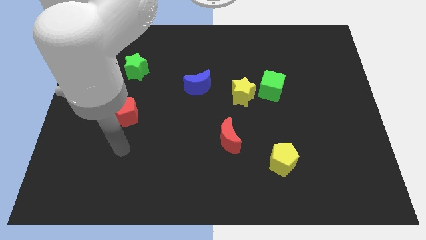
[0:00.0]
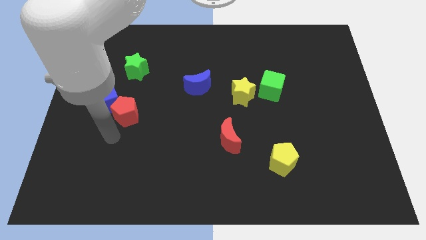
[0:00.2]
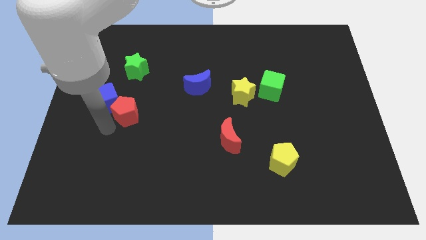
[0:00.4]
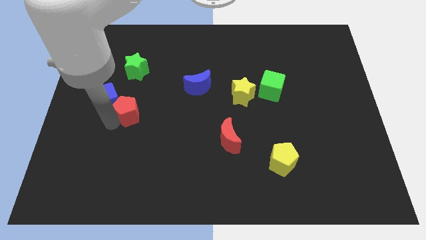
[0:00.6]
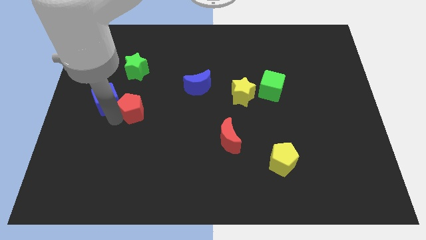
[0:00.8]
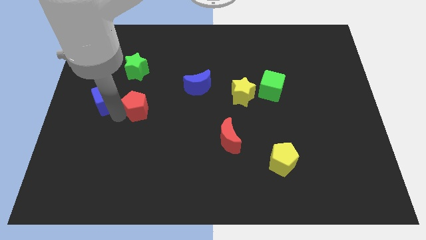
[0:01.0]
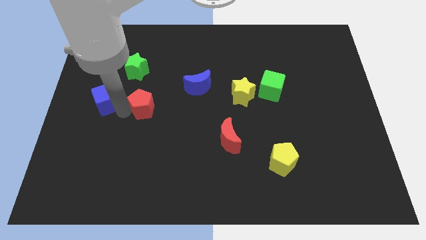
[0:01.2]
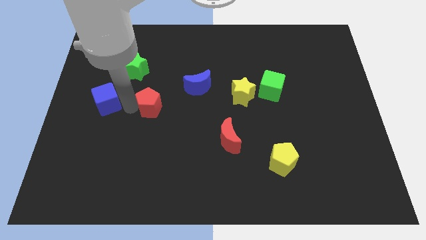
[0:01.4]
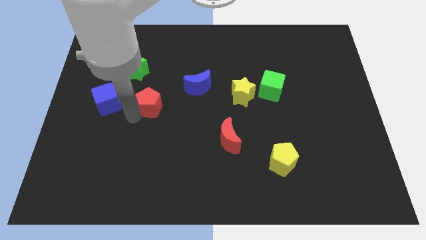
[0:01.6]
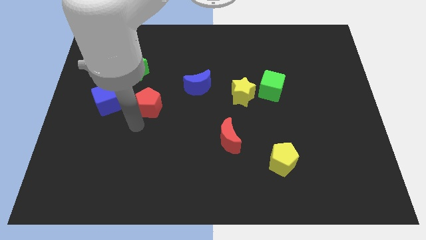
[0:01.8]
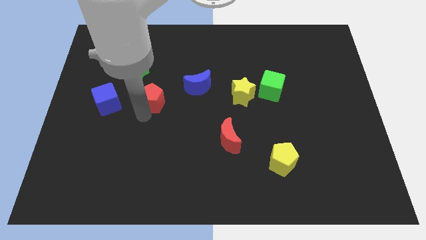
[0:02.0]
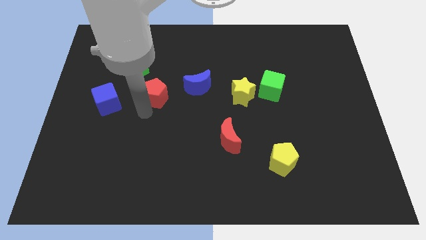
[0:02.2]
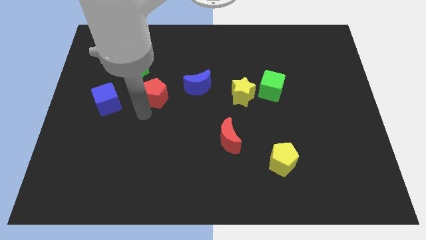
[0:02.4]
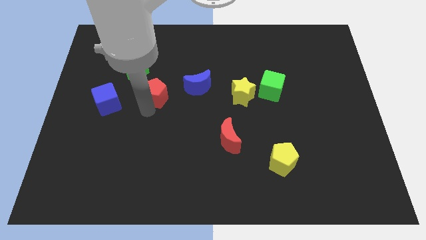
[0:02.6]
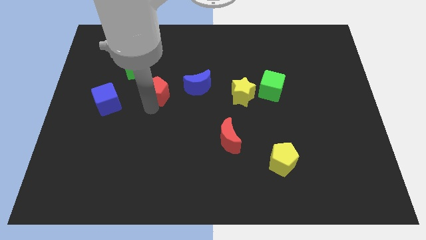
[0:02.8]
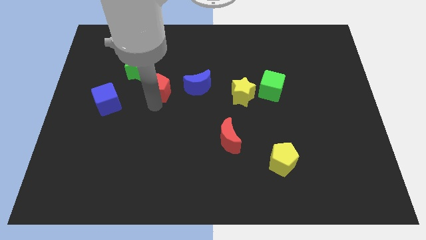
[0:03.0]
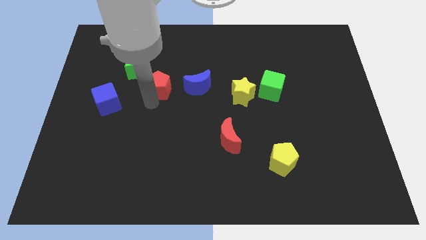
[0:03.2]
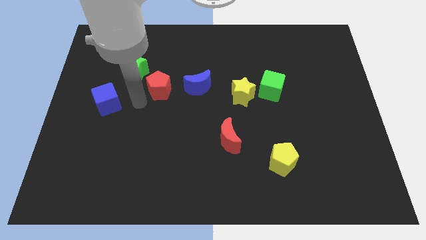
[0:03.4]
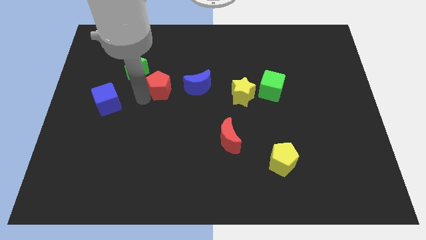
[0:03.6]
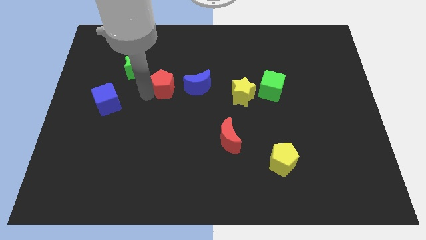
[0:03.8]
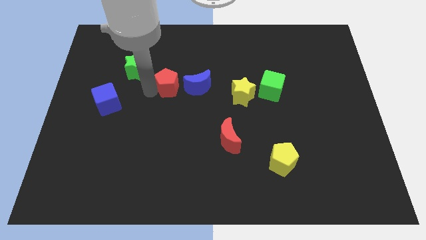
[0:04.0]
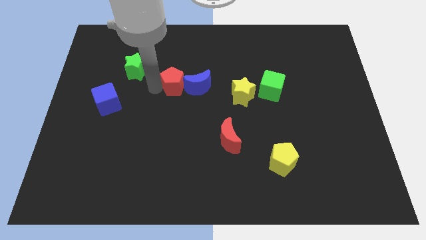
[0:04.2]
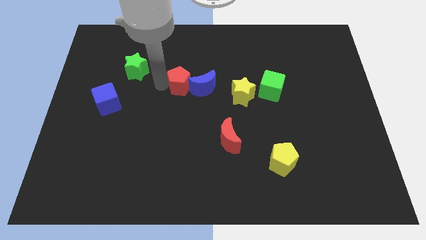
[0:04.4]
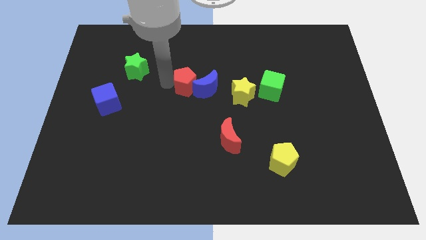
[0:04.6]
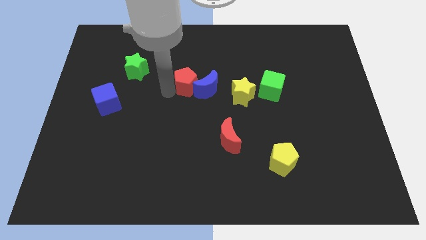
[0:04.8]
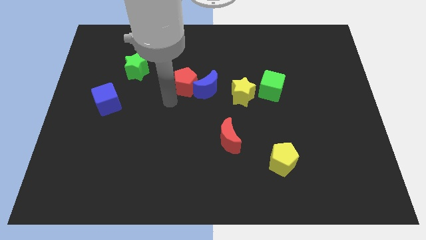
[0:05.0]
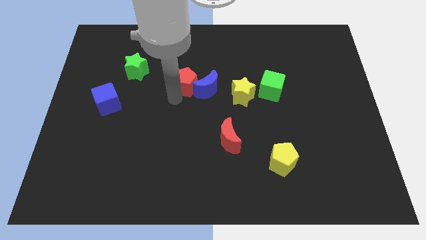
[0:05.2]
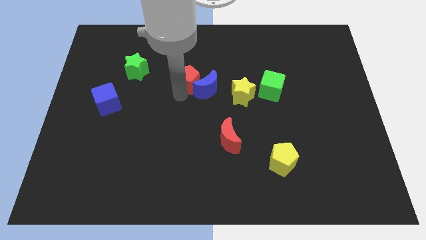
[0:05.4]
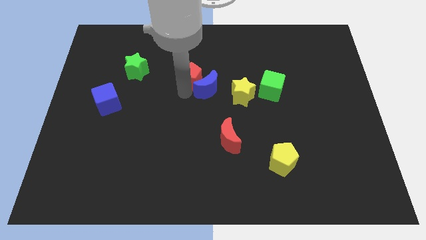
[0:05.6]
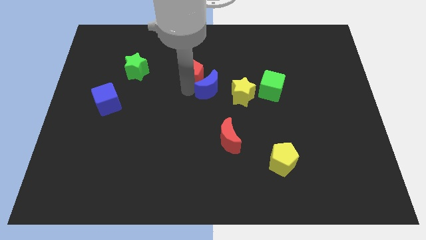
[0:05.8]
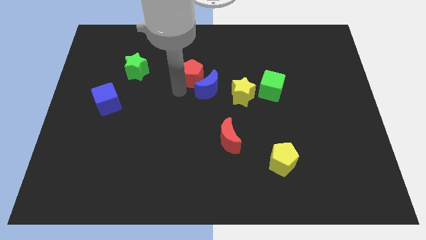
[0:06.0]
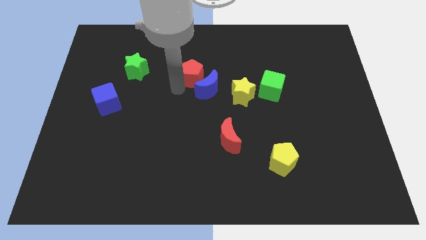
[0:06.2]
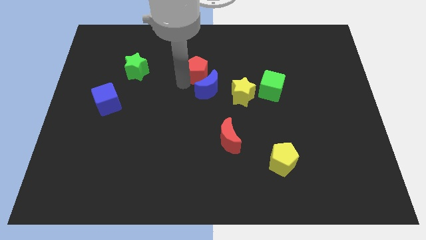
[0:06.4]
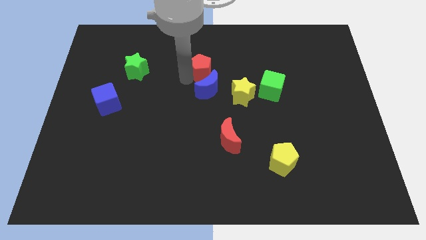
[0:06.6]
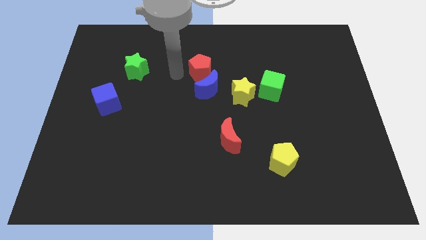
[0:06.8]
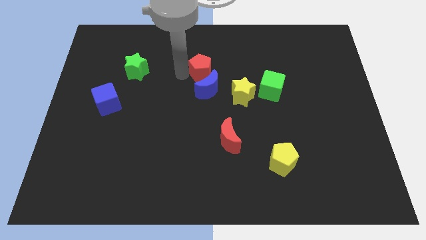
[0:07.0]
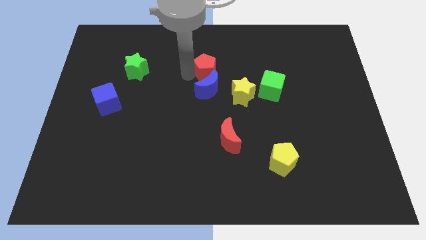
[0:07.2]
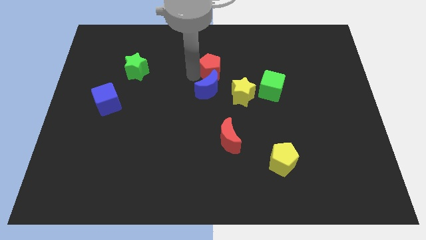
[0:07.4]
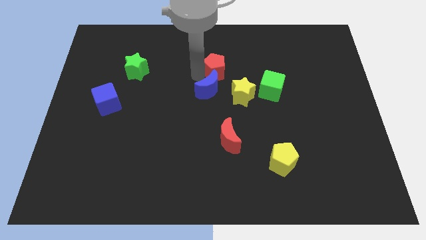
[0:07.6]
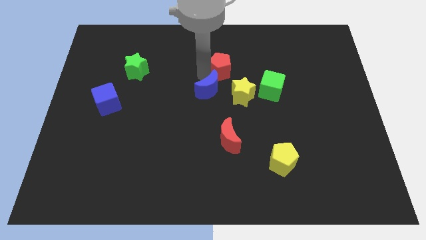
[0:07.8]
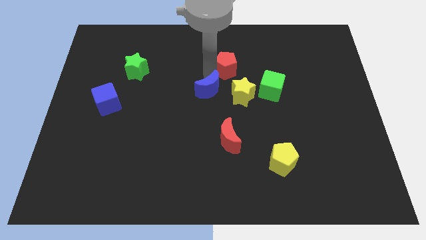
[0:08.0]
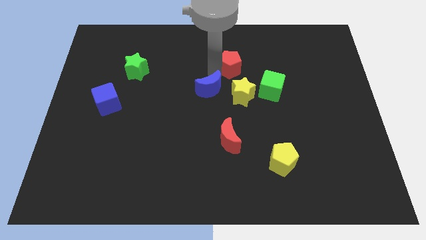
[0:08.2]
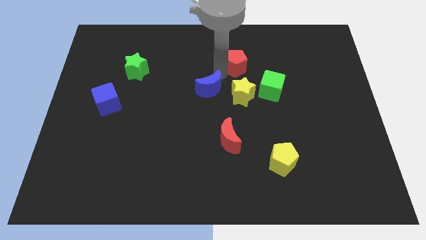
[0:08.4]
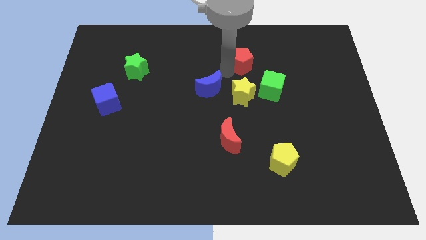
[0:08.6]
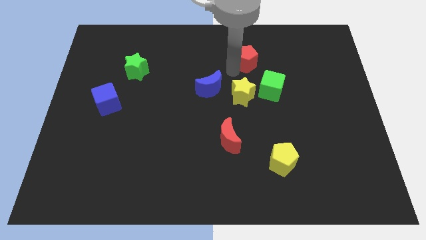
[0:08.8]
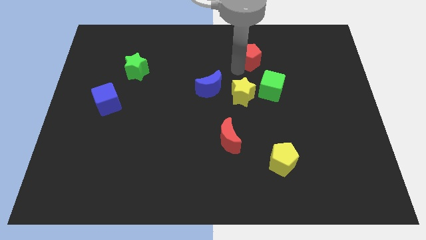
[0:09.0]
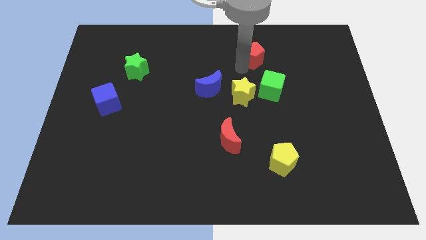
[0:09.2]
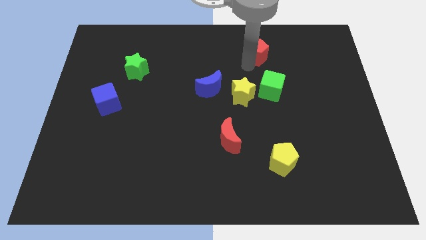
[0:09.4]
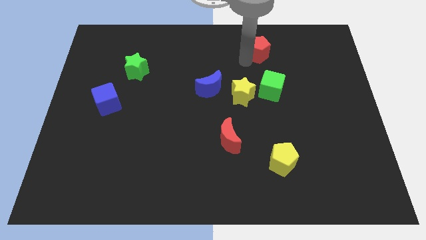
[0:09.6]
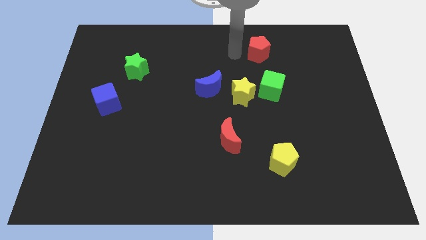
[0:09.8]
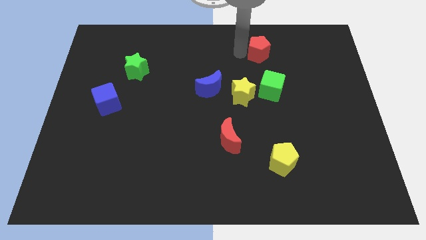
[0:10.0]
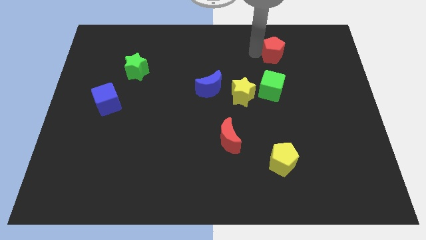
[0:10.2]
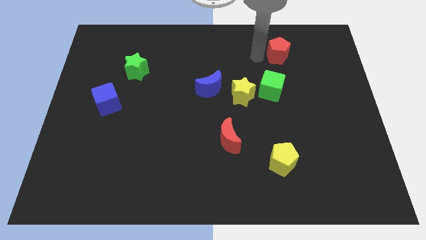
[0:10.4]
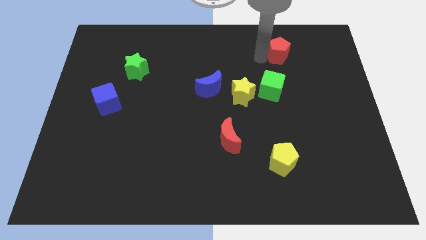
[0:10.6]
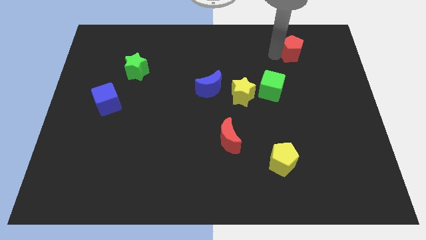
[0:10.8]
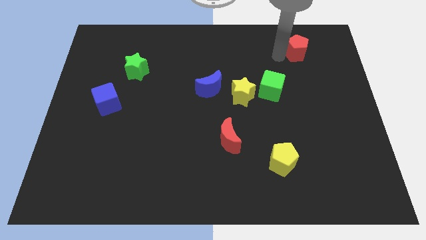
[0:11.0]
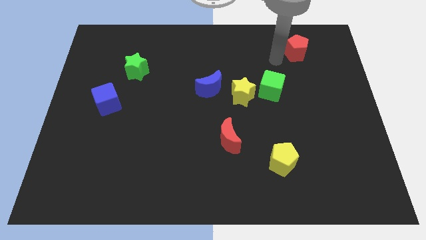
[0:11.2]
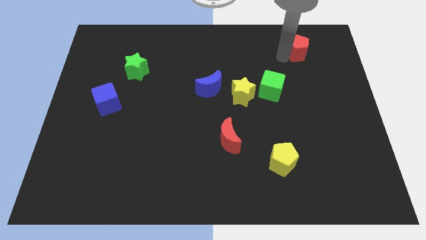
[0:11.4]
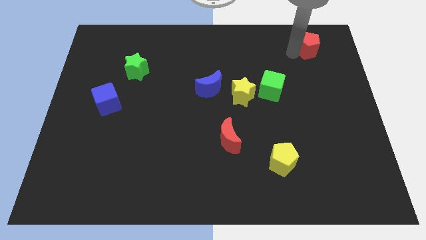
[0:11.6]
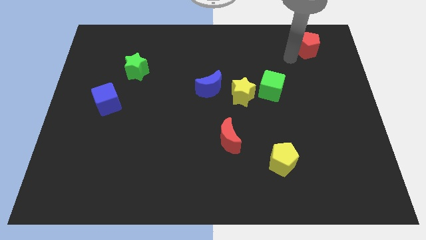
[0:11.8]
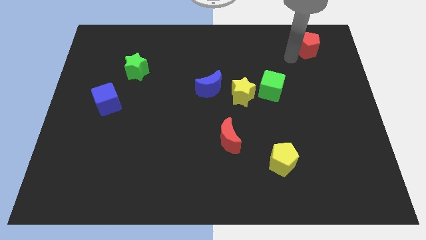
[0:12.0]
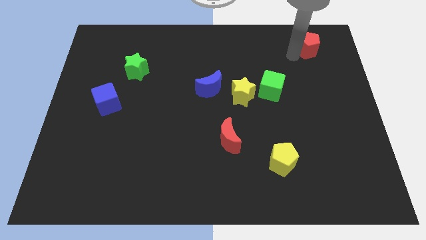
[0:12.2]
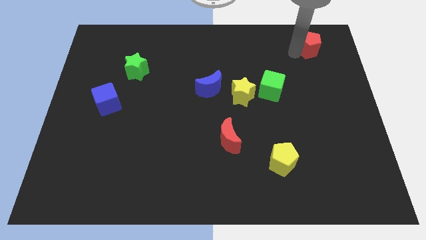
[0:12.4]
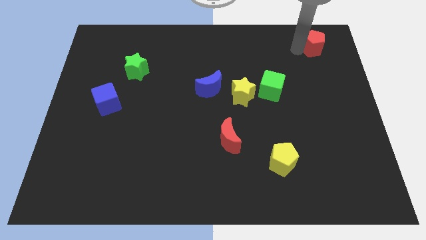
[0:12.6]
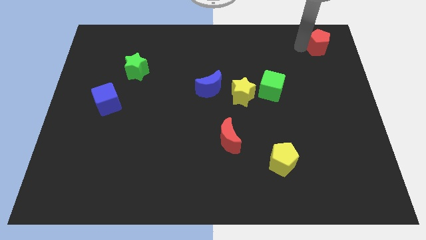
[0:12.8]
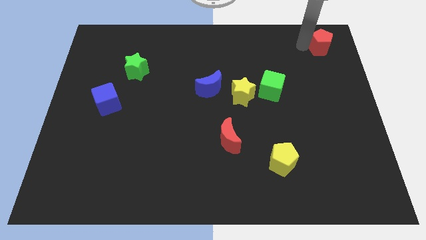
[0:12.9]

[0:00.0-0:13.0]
push the red pentagon to the upper right corner

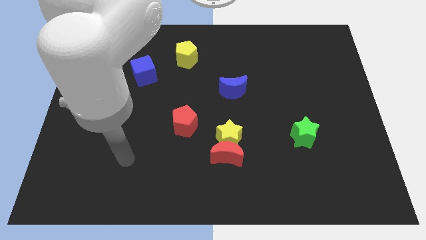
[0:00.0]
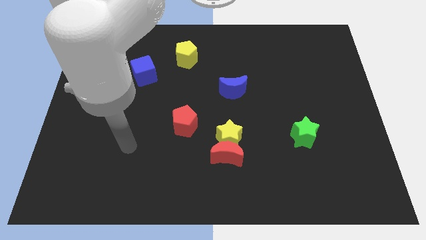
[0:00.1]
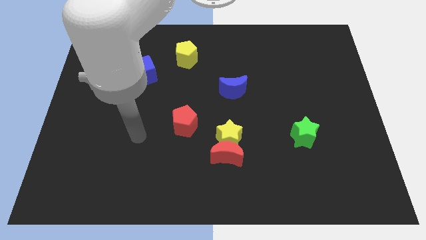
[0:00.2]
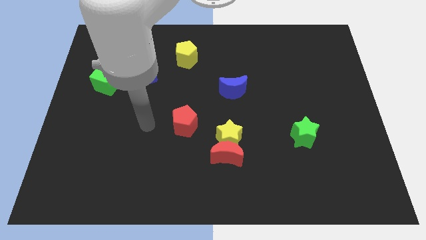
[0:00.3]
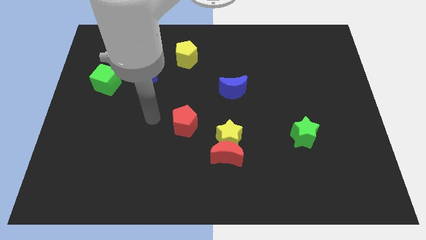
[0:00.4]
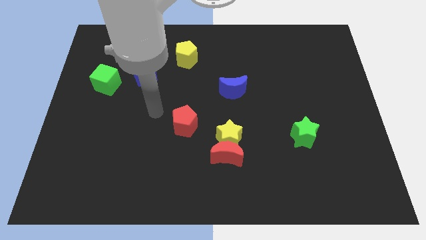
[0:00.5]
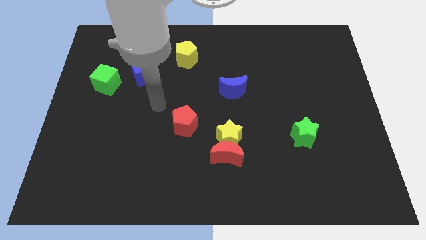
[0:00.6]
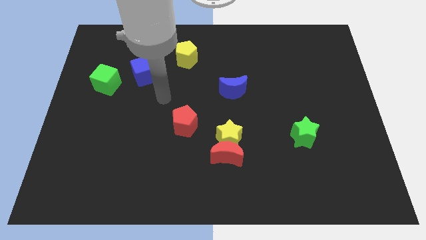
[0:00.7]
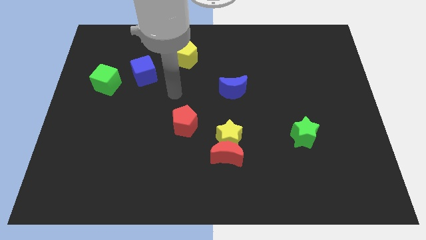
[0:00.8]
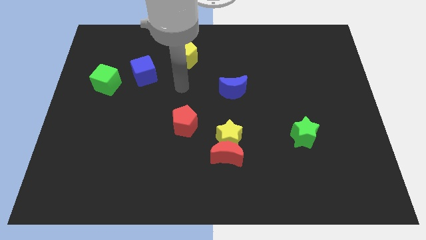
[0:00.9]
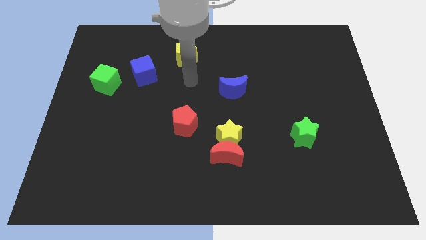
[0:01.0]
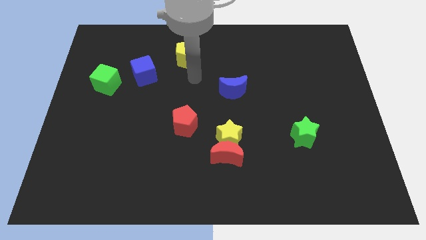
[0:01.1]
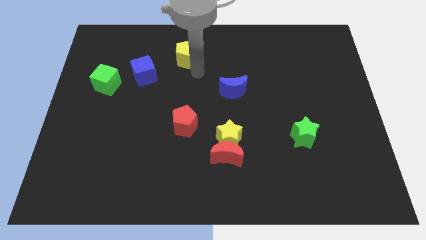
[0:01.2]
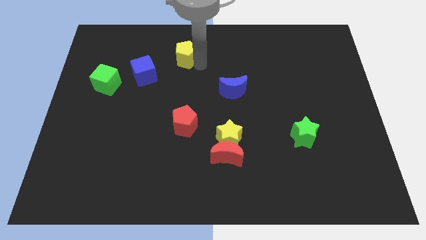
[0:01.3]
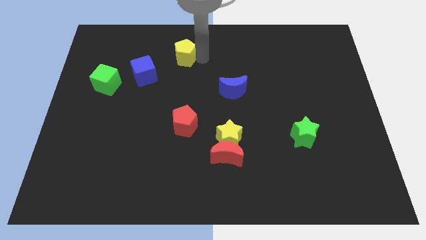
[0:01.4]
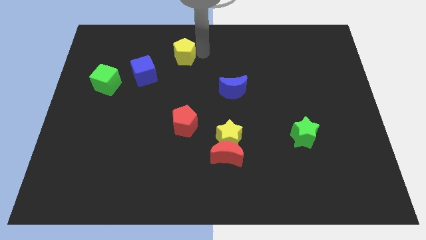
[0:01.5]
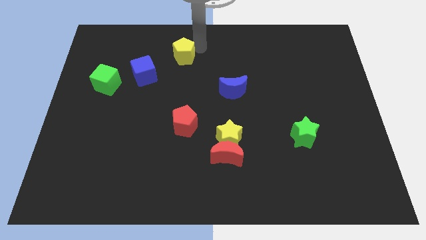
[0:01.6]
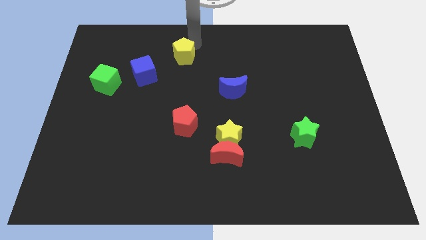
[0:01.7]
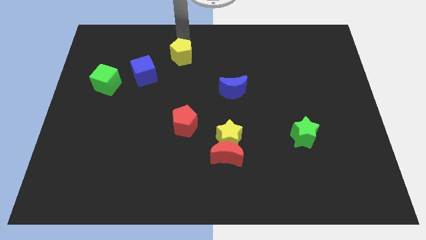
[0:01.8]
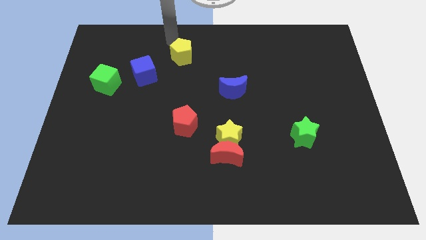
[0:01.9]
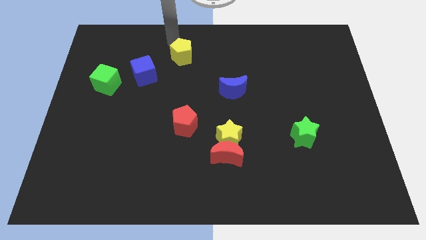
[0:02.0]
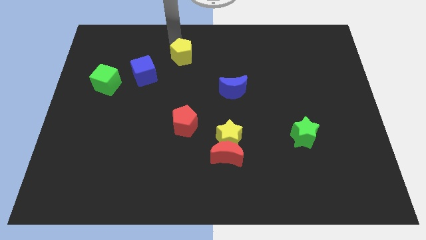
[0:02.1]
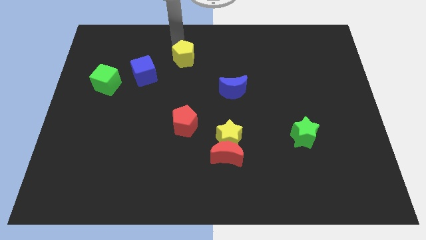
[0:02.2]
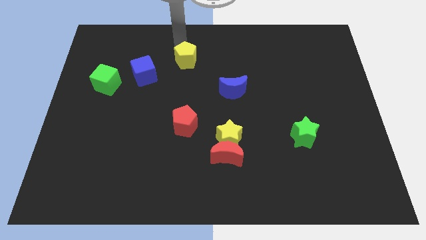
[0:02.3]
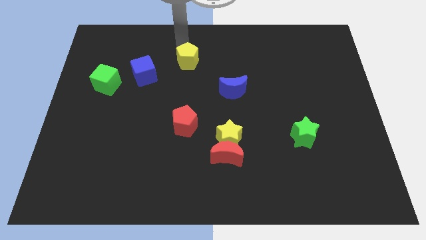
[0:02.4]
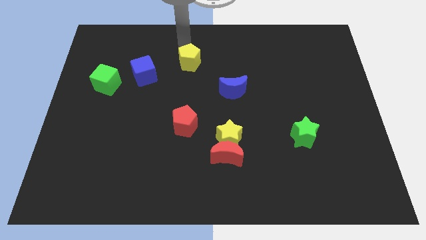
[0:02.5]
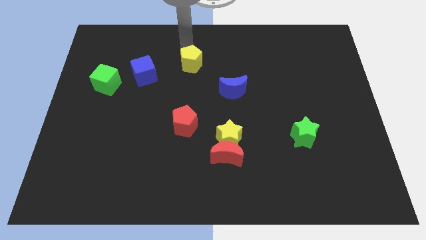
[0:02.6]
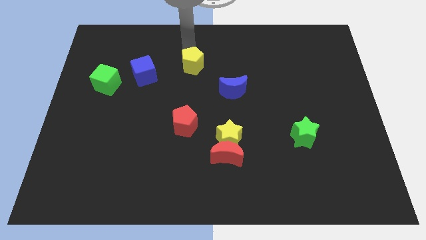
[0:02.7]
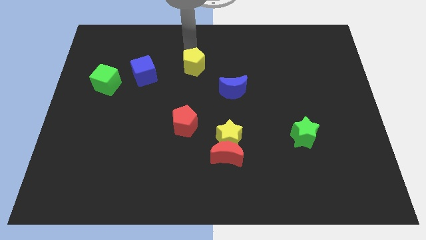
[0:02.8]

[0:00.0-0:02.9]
put the yellow pentagon to the middle
